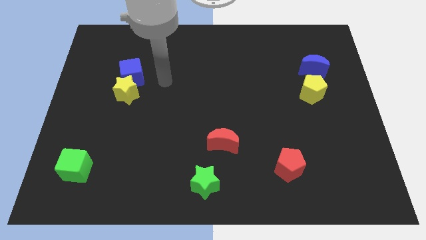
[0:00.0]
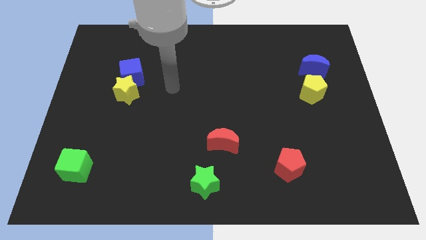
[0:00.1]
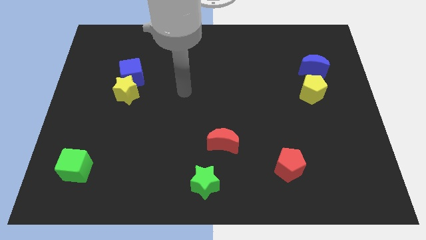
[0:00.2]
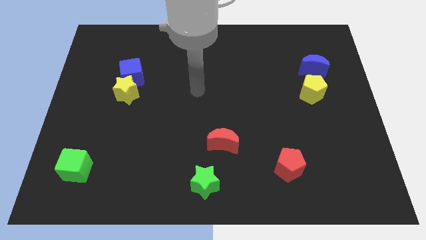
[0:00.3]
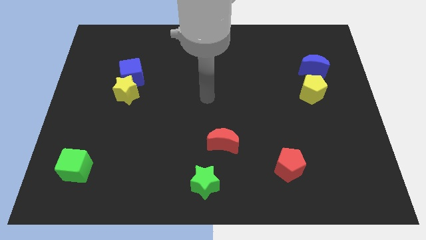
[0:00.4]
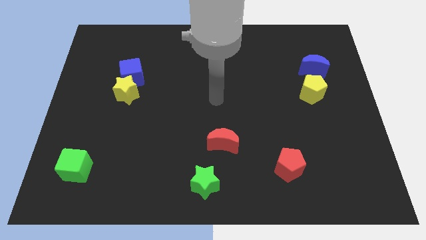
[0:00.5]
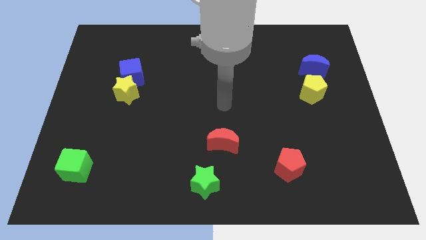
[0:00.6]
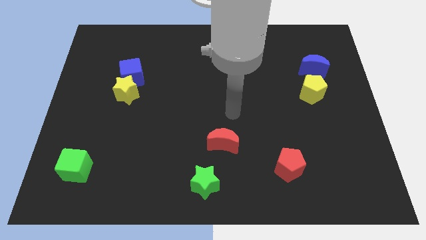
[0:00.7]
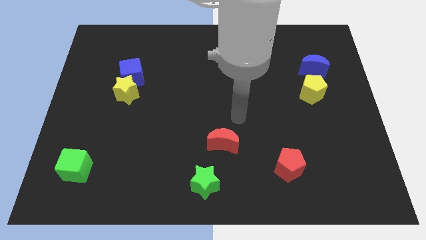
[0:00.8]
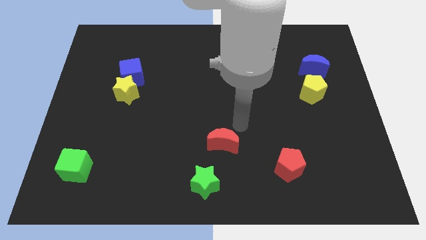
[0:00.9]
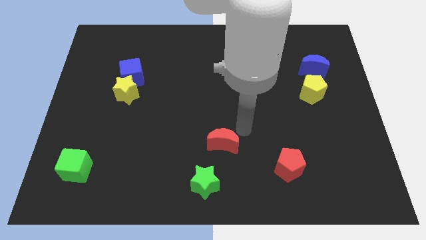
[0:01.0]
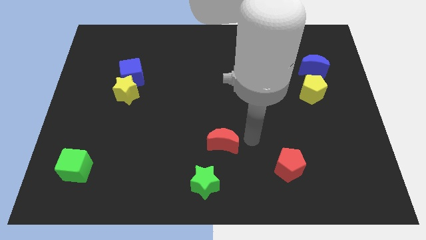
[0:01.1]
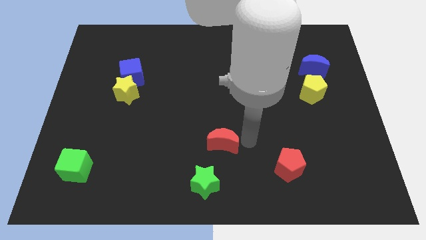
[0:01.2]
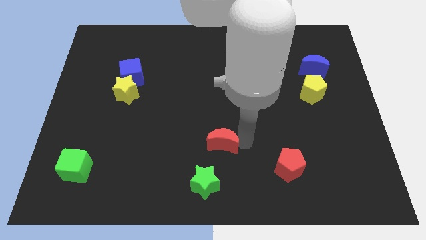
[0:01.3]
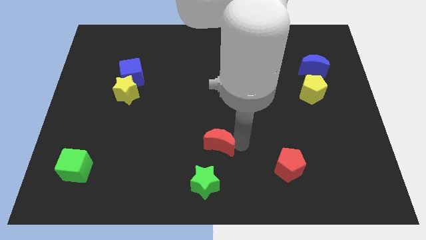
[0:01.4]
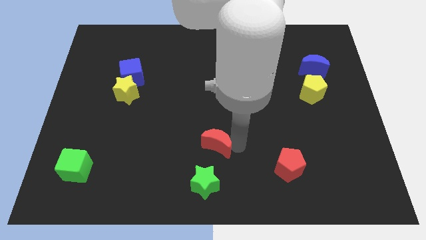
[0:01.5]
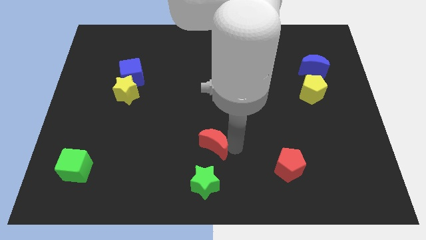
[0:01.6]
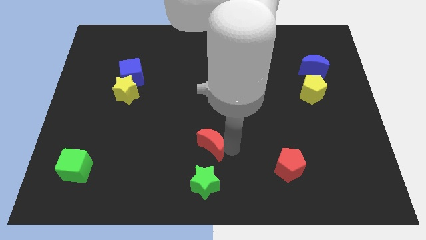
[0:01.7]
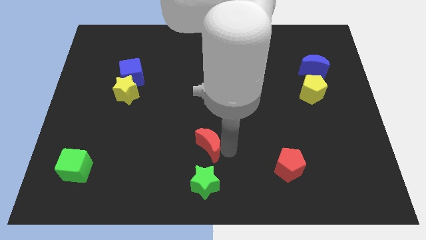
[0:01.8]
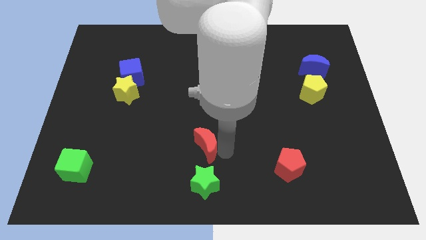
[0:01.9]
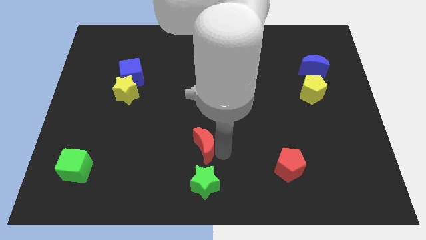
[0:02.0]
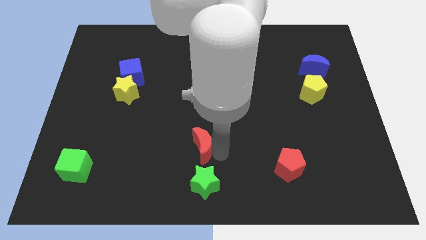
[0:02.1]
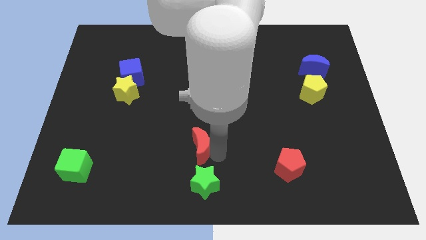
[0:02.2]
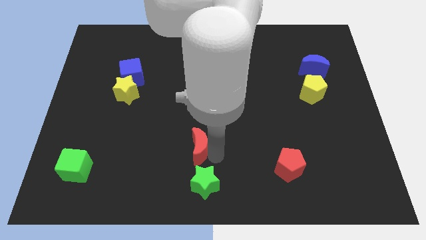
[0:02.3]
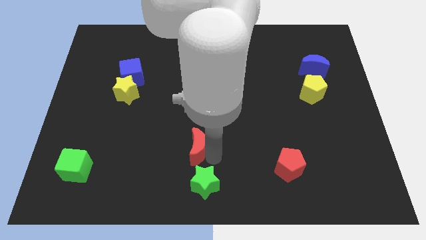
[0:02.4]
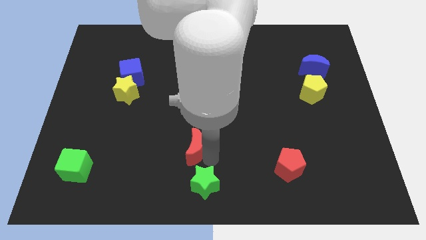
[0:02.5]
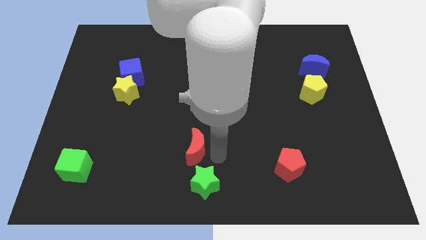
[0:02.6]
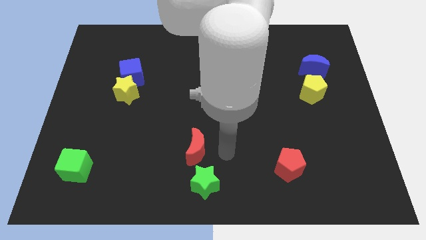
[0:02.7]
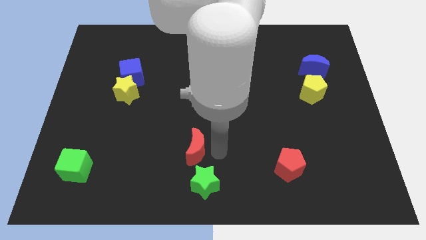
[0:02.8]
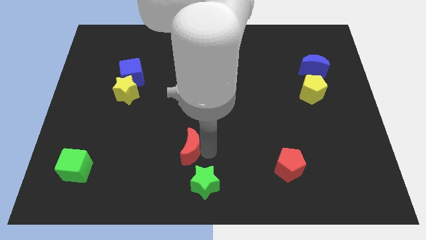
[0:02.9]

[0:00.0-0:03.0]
slightly push the red moon to the left

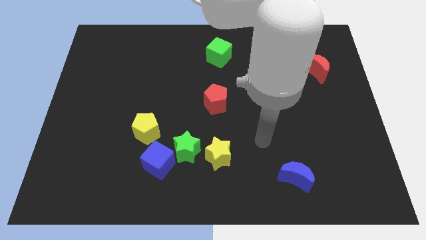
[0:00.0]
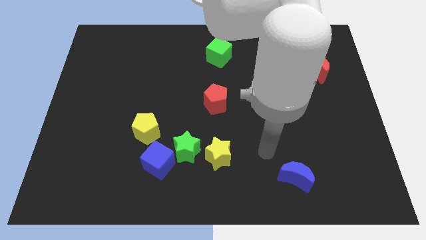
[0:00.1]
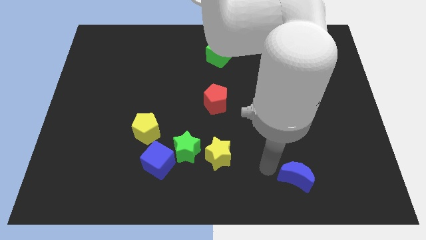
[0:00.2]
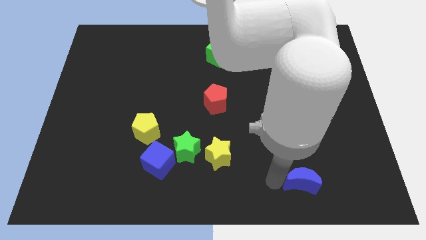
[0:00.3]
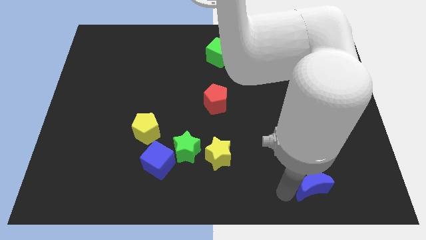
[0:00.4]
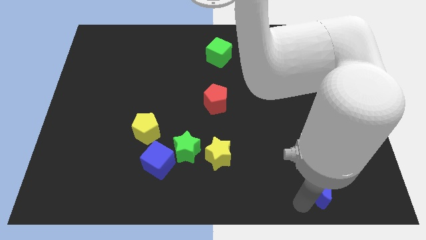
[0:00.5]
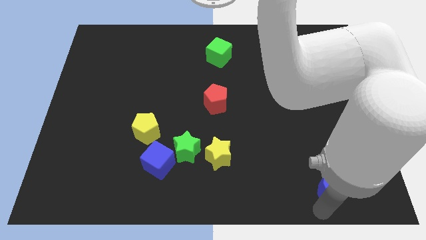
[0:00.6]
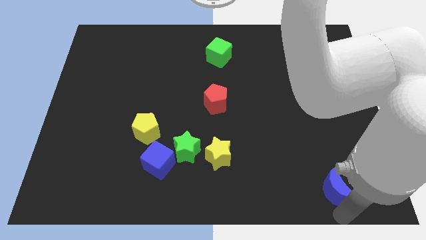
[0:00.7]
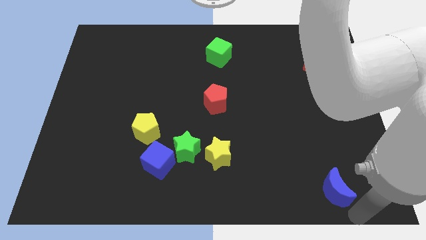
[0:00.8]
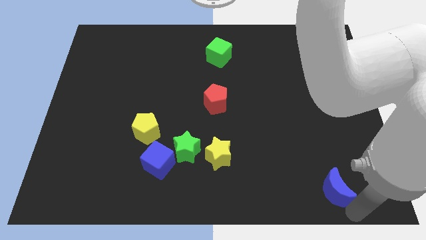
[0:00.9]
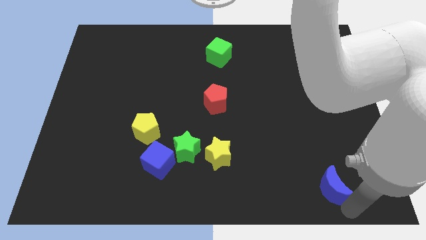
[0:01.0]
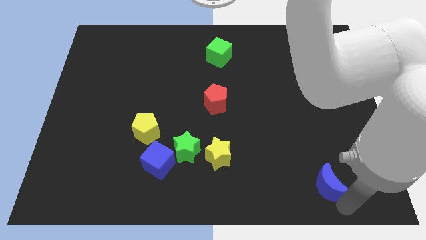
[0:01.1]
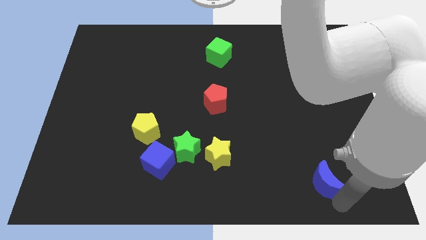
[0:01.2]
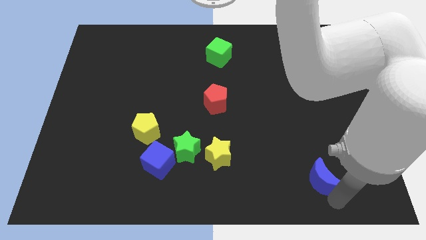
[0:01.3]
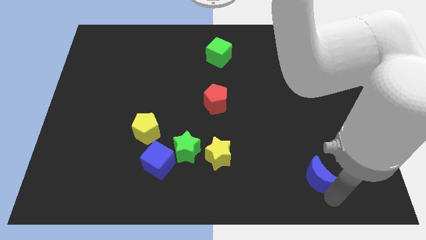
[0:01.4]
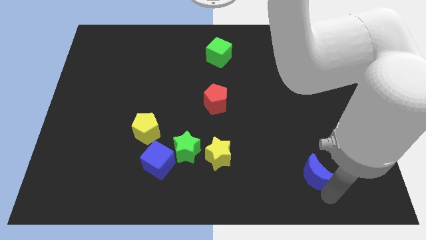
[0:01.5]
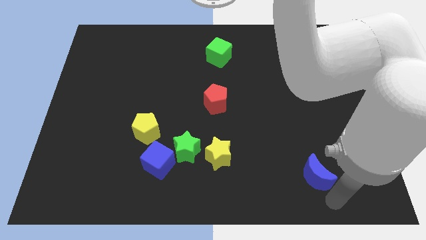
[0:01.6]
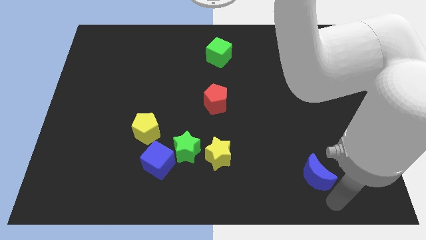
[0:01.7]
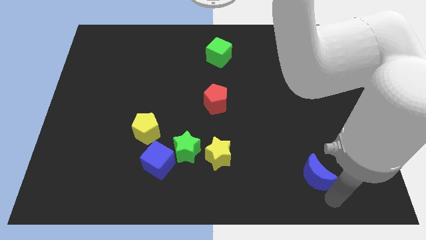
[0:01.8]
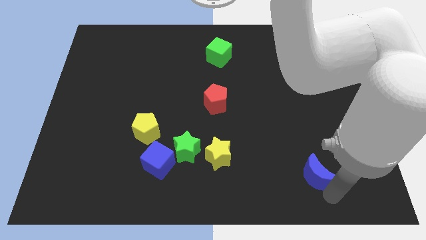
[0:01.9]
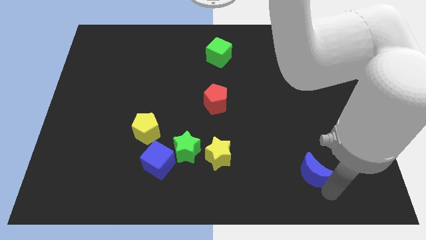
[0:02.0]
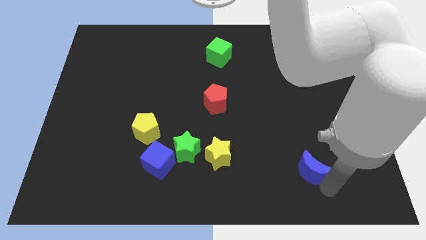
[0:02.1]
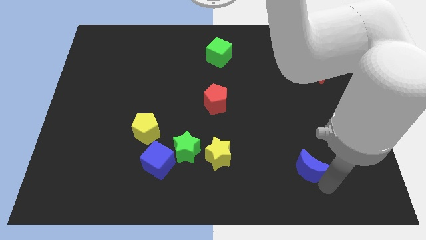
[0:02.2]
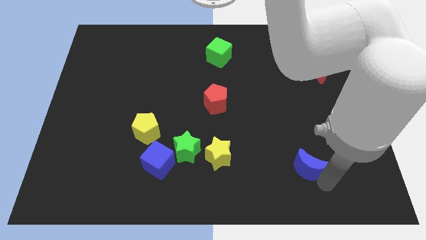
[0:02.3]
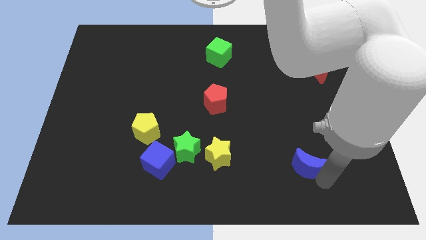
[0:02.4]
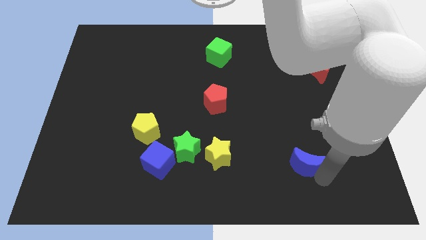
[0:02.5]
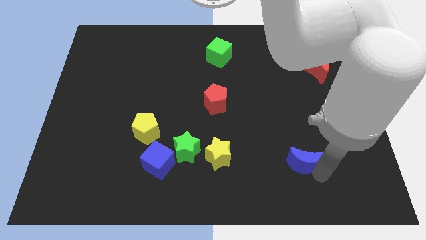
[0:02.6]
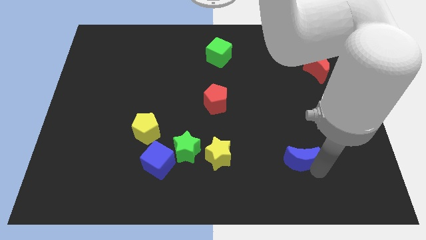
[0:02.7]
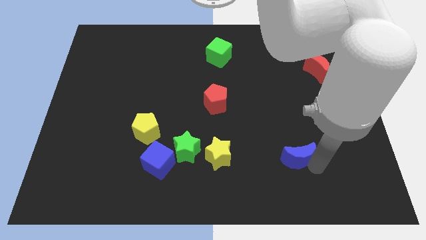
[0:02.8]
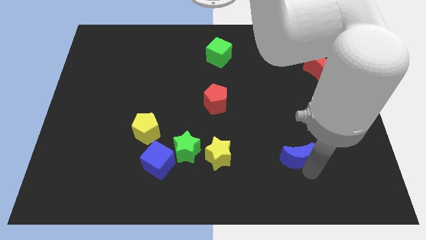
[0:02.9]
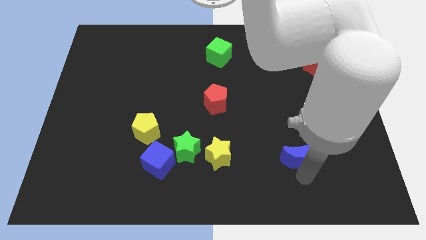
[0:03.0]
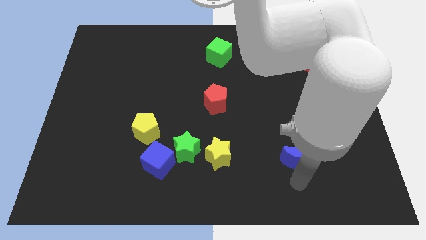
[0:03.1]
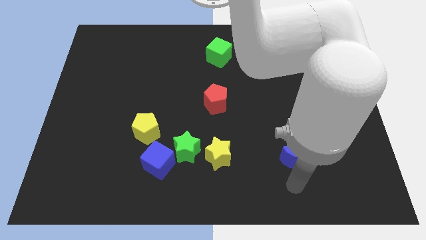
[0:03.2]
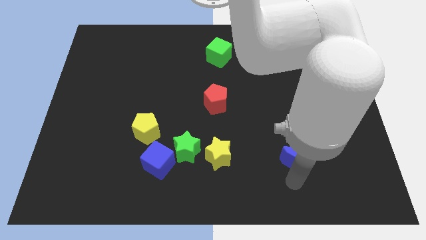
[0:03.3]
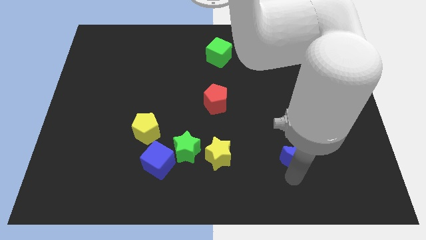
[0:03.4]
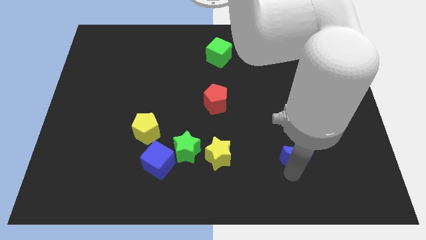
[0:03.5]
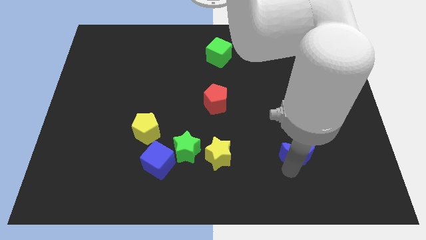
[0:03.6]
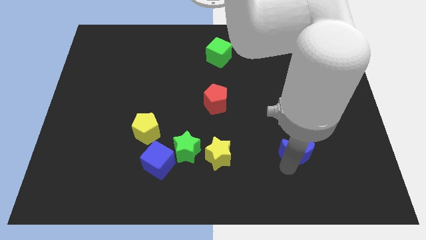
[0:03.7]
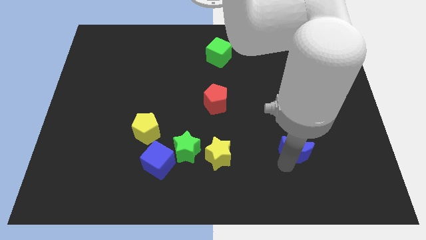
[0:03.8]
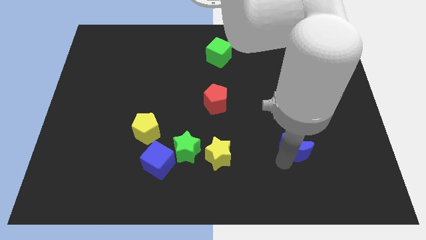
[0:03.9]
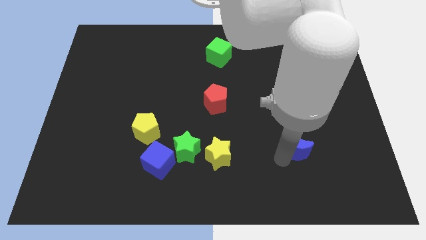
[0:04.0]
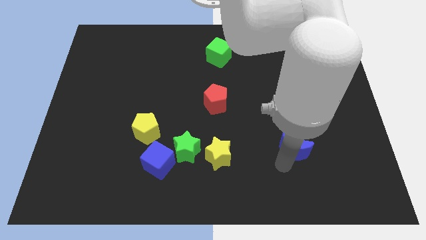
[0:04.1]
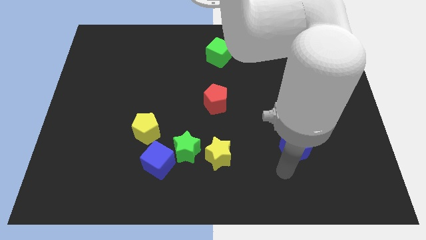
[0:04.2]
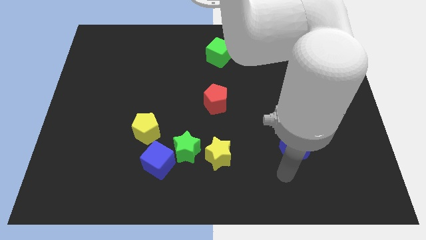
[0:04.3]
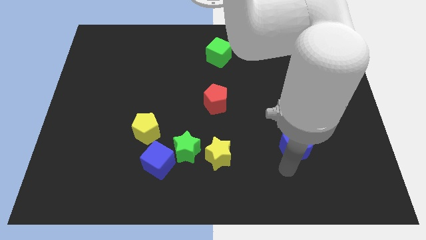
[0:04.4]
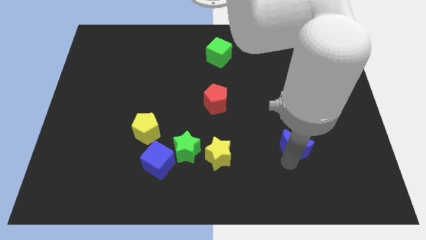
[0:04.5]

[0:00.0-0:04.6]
slightly move the blue moon upwards

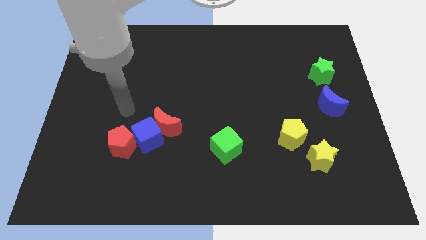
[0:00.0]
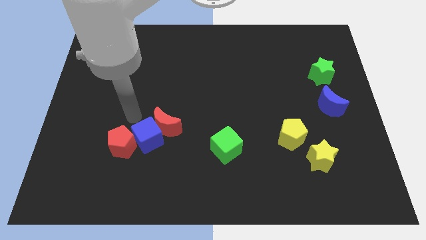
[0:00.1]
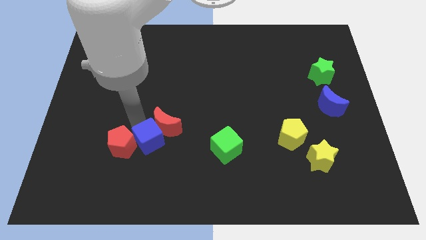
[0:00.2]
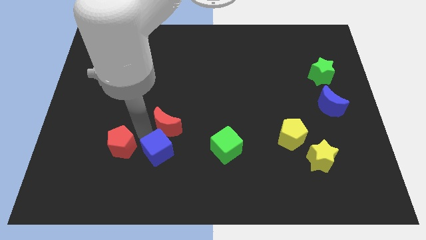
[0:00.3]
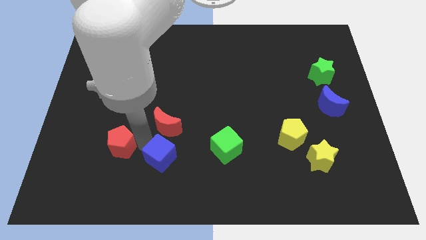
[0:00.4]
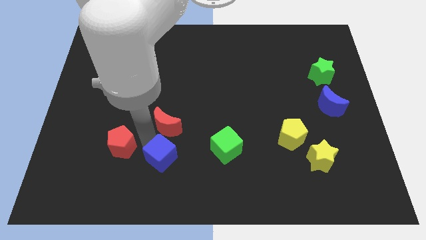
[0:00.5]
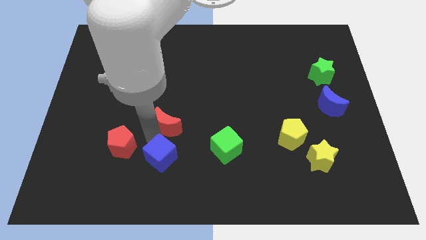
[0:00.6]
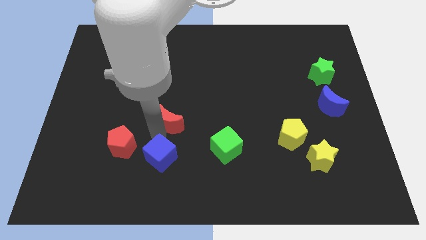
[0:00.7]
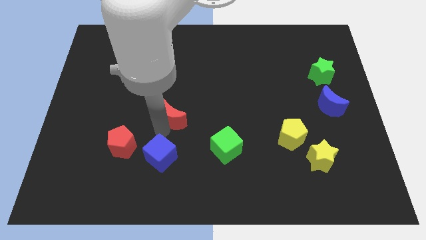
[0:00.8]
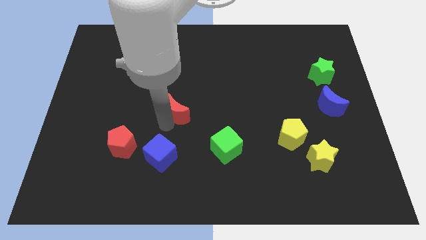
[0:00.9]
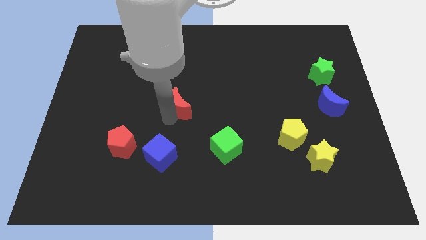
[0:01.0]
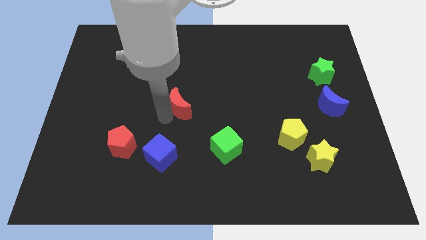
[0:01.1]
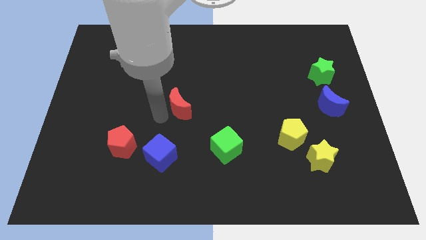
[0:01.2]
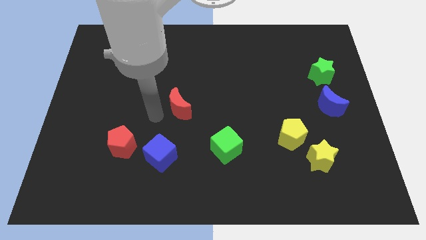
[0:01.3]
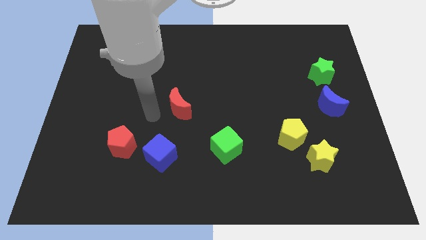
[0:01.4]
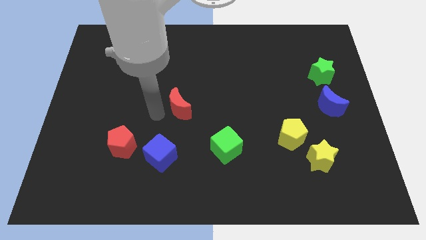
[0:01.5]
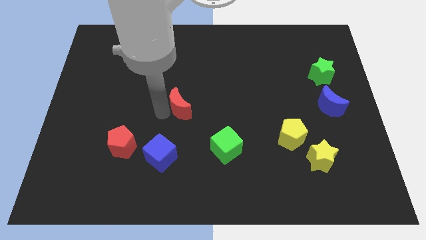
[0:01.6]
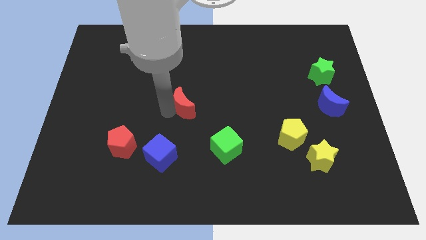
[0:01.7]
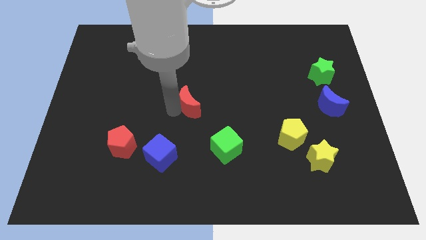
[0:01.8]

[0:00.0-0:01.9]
slide the red moon up and to the right a bit
